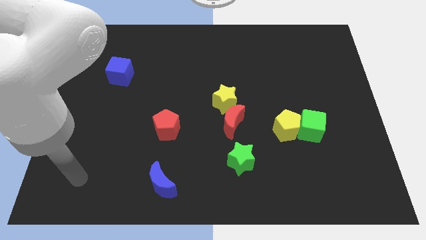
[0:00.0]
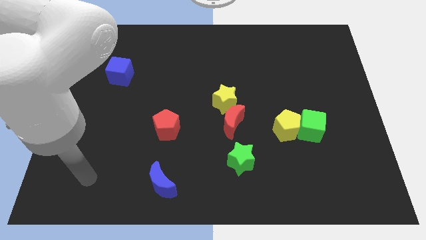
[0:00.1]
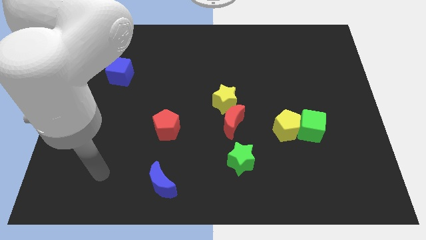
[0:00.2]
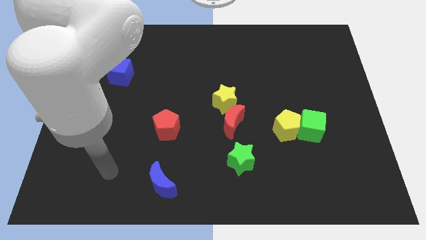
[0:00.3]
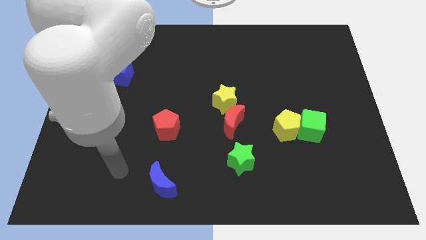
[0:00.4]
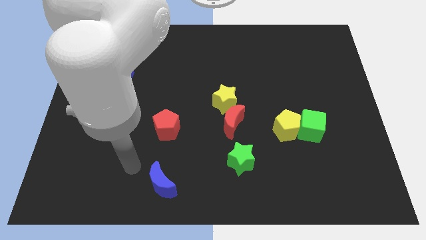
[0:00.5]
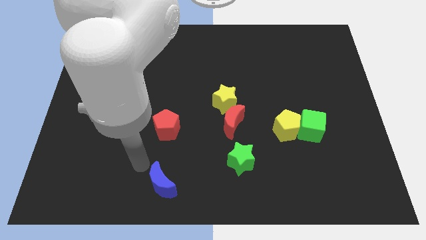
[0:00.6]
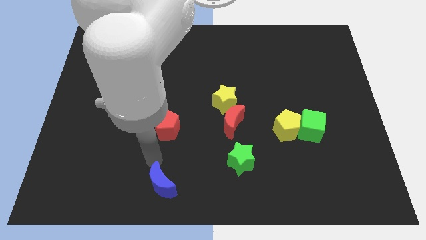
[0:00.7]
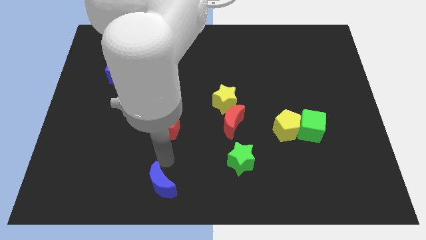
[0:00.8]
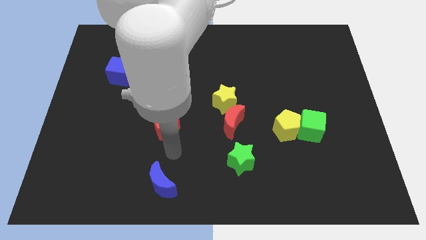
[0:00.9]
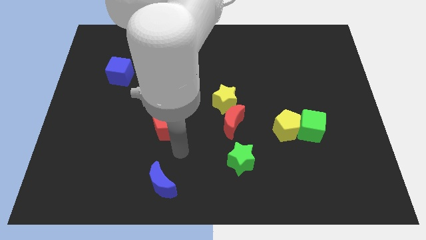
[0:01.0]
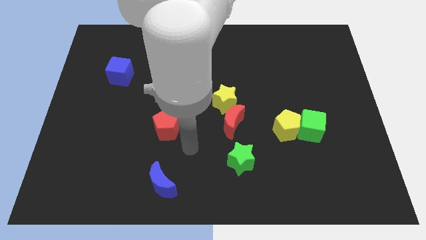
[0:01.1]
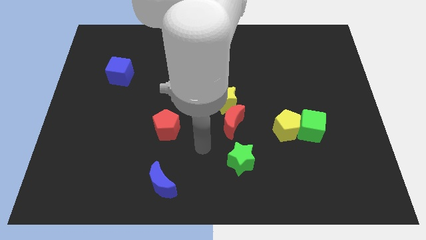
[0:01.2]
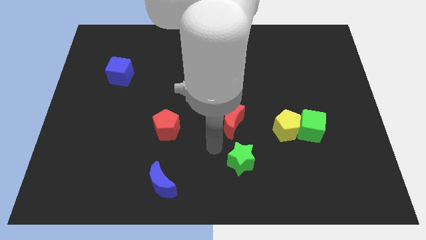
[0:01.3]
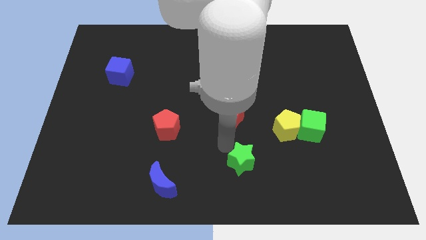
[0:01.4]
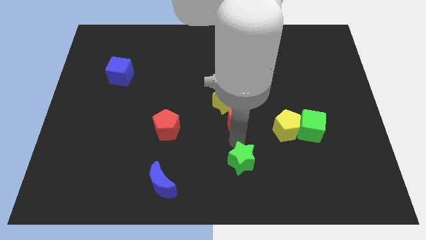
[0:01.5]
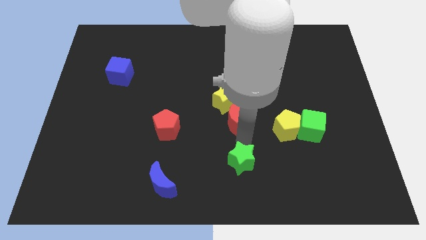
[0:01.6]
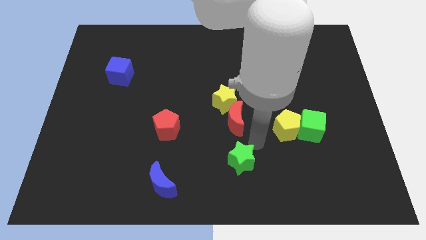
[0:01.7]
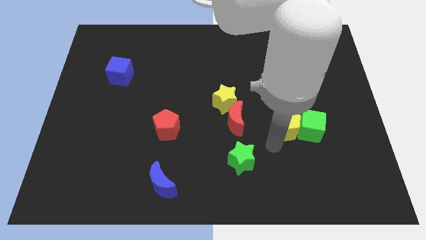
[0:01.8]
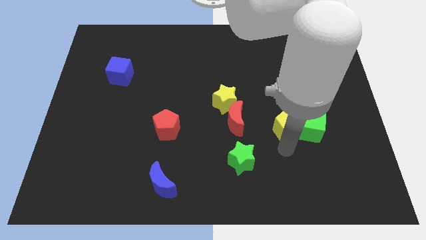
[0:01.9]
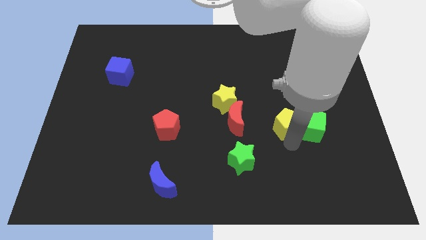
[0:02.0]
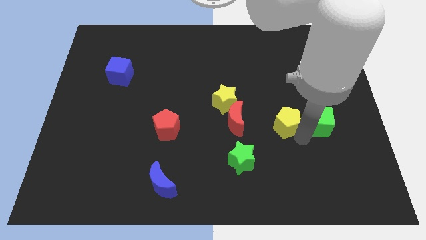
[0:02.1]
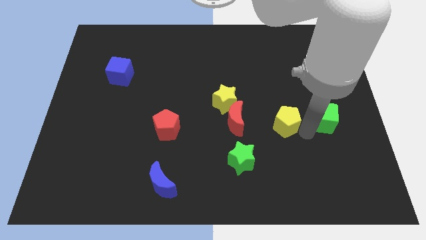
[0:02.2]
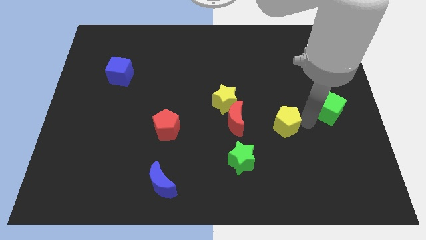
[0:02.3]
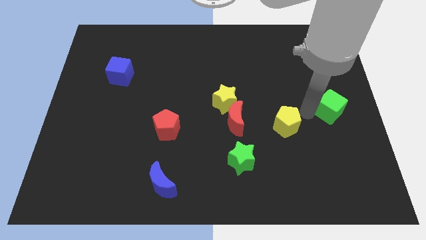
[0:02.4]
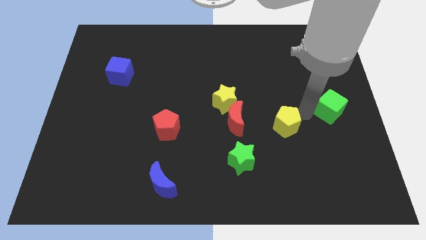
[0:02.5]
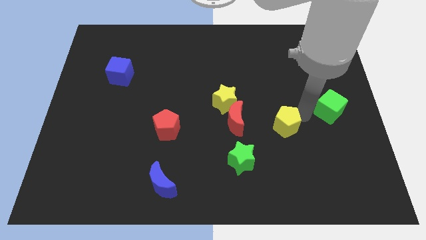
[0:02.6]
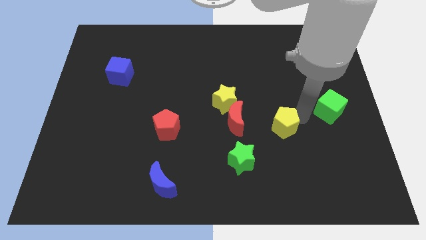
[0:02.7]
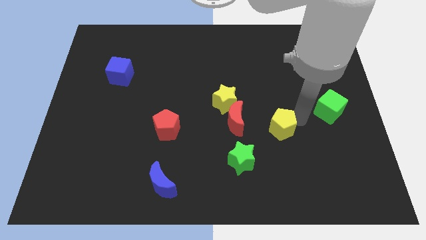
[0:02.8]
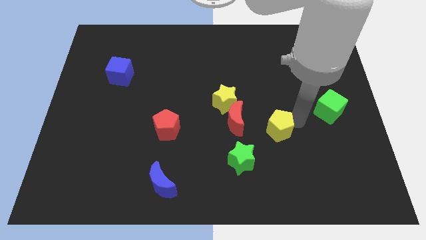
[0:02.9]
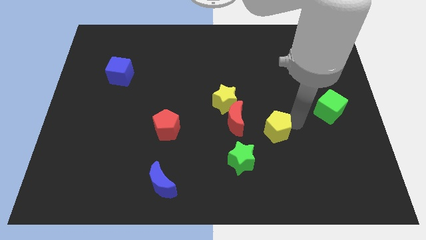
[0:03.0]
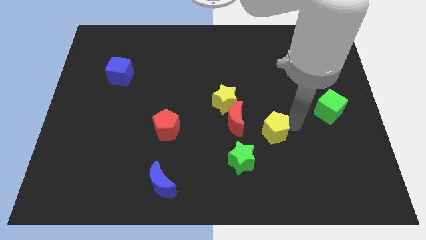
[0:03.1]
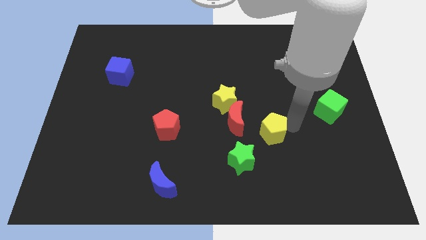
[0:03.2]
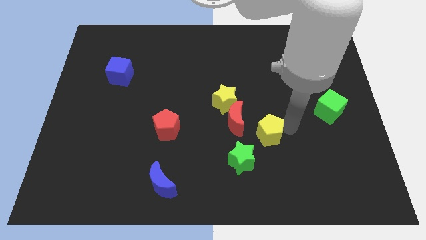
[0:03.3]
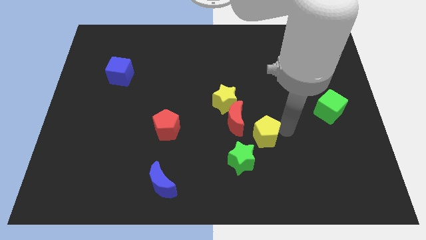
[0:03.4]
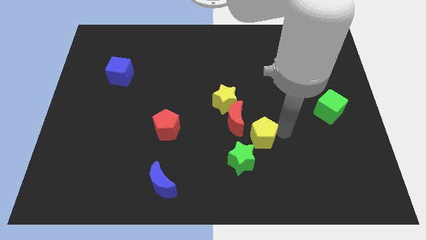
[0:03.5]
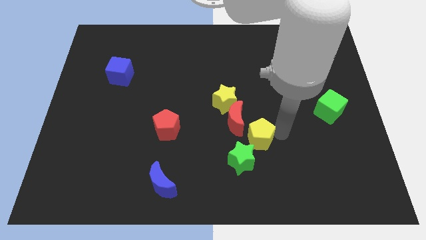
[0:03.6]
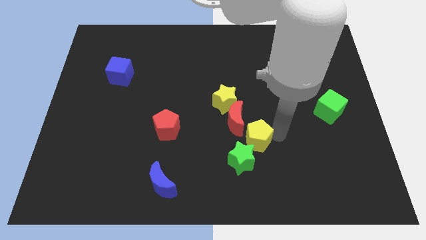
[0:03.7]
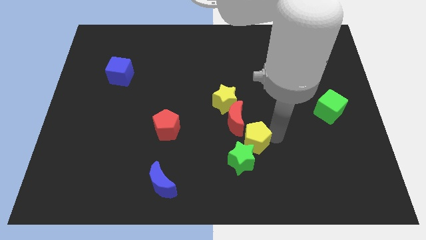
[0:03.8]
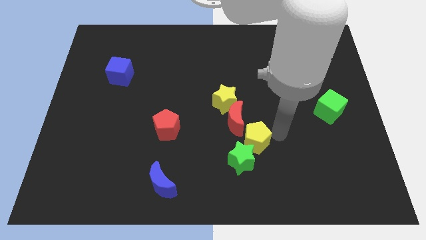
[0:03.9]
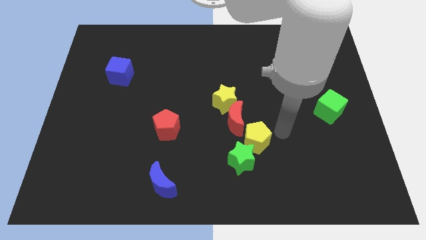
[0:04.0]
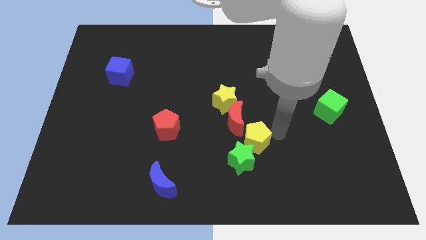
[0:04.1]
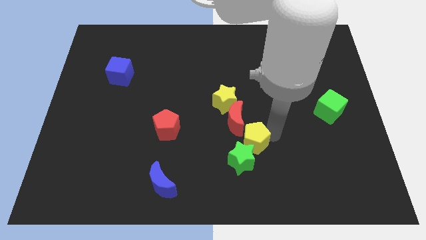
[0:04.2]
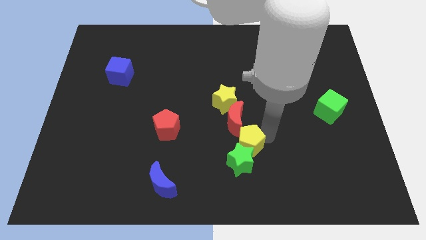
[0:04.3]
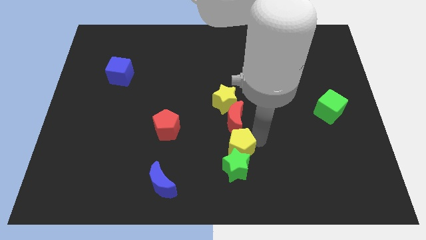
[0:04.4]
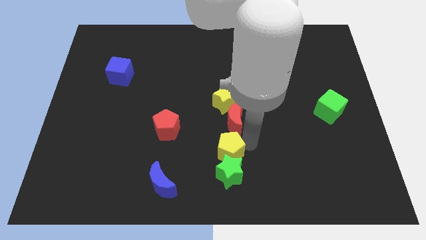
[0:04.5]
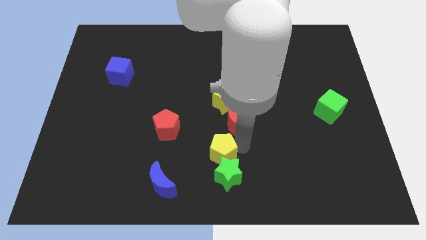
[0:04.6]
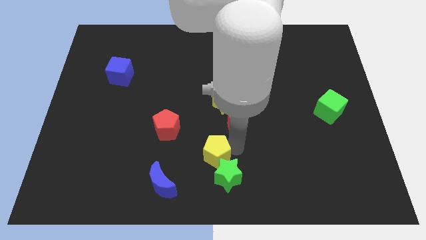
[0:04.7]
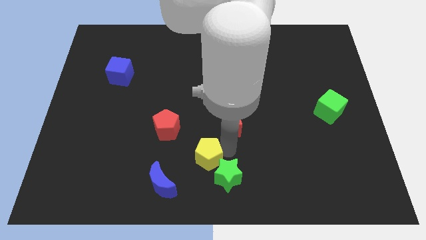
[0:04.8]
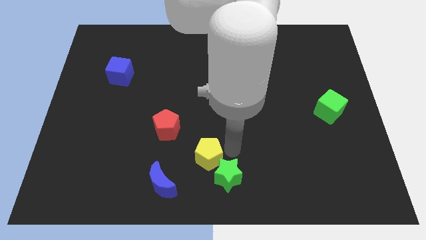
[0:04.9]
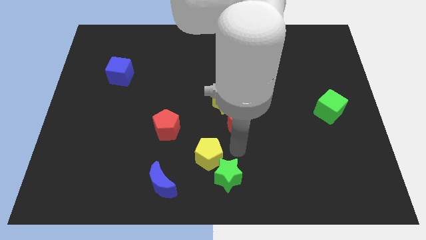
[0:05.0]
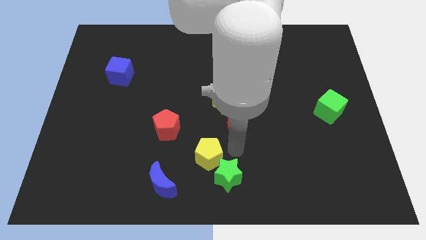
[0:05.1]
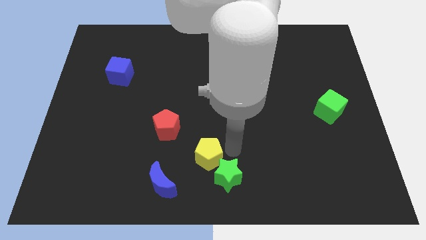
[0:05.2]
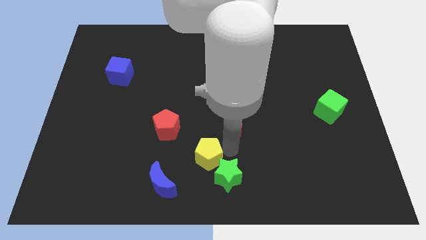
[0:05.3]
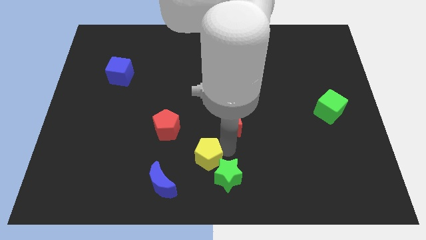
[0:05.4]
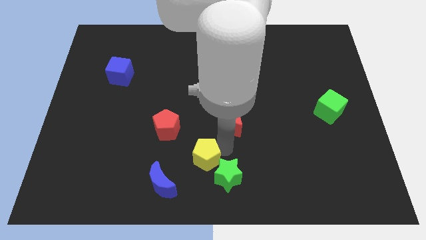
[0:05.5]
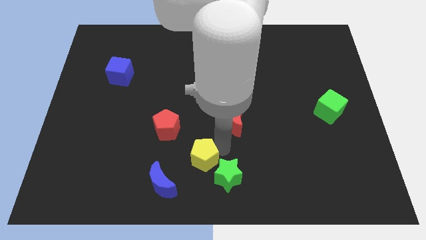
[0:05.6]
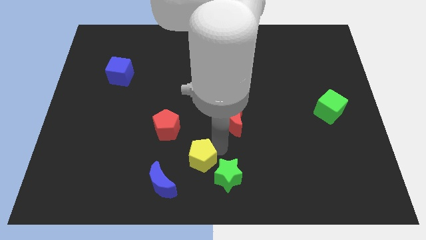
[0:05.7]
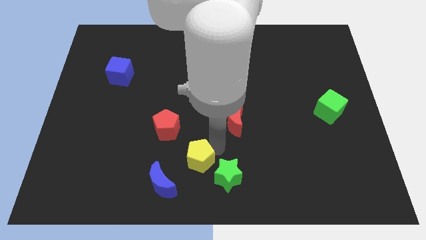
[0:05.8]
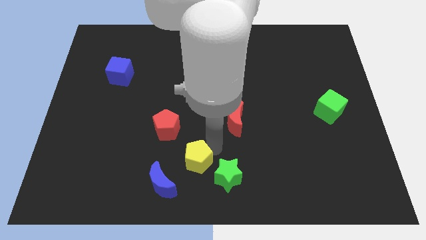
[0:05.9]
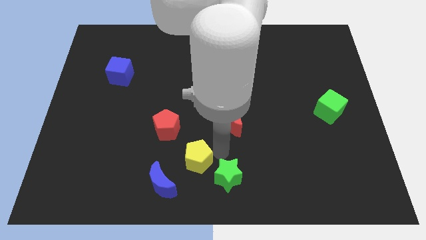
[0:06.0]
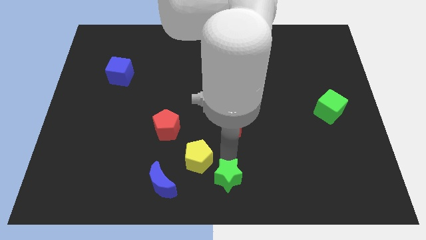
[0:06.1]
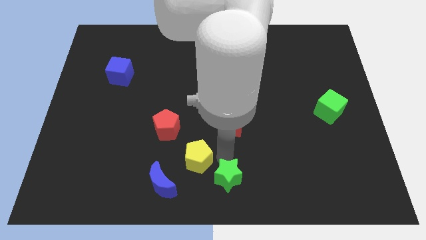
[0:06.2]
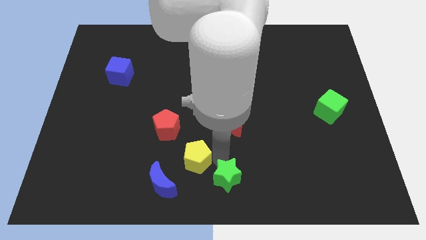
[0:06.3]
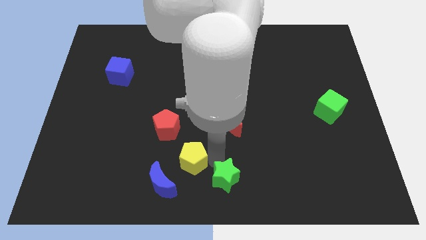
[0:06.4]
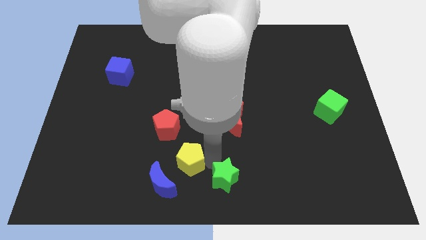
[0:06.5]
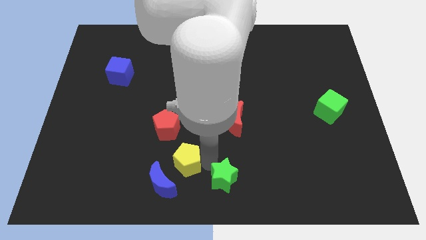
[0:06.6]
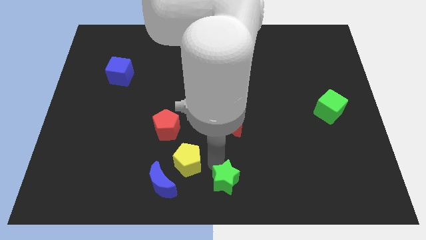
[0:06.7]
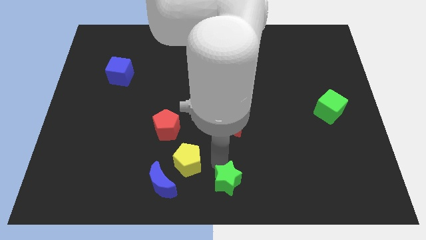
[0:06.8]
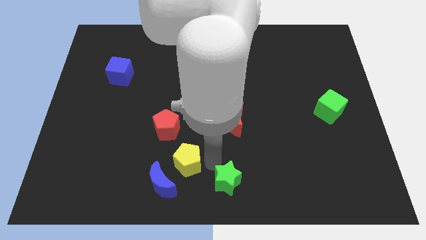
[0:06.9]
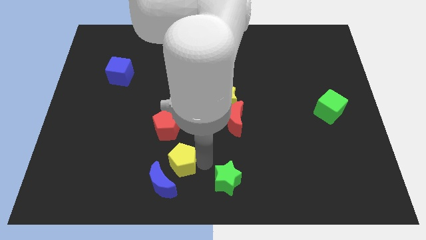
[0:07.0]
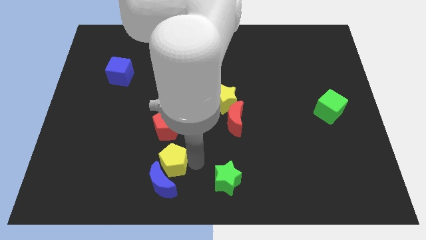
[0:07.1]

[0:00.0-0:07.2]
slide the yellow pentagon left

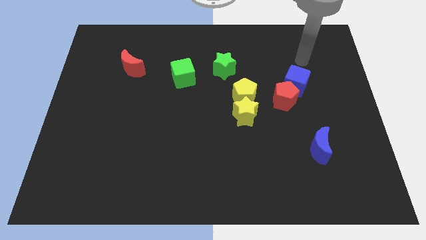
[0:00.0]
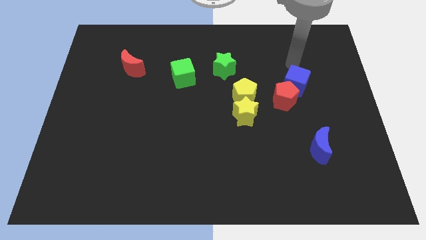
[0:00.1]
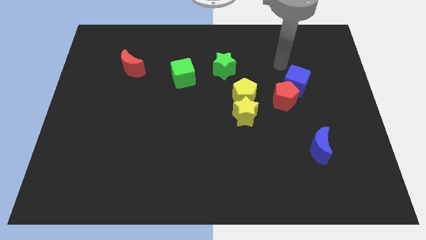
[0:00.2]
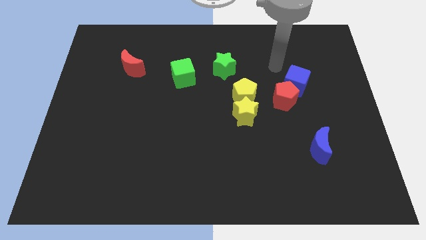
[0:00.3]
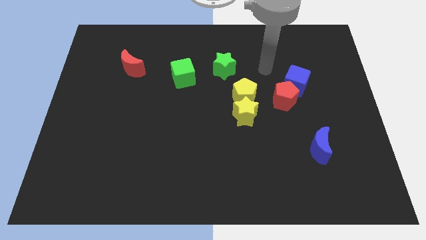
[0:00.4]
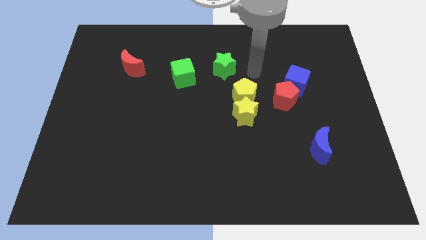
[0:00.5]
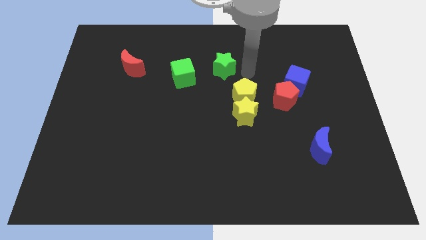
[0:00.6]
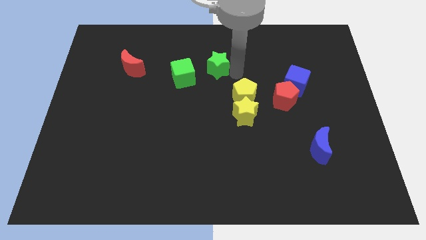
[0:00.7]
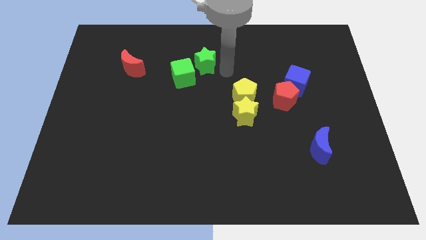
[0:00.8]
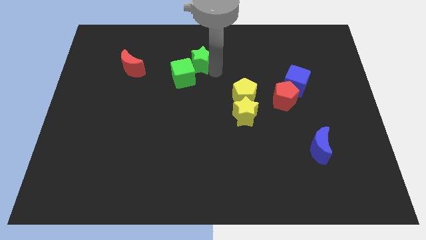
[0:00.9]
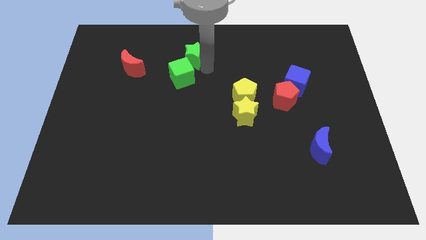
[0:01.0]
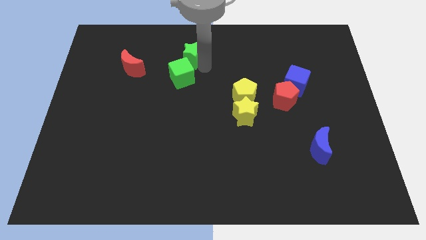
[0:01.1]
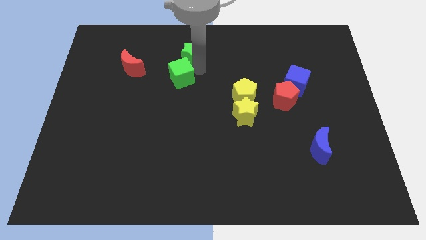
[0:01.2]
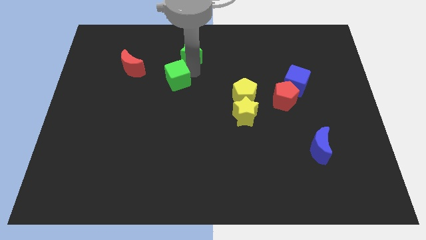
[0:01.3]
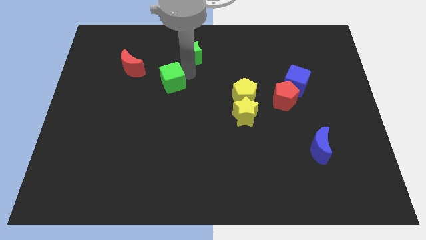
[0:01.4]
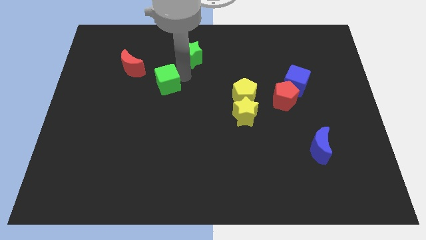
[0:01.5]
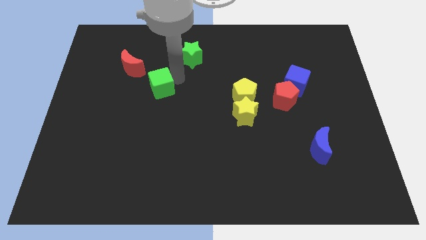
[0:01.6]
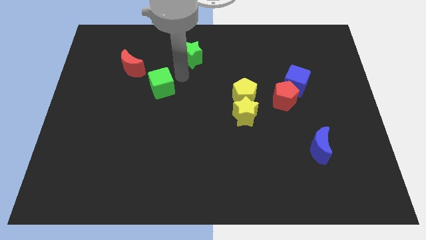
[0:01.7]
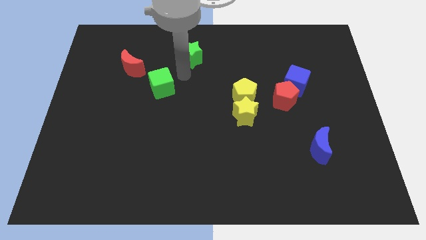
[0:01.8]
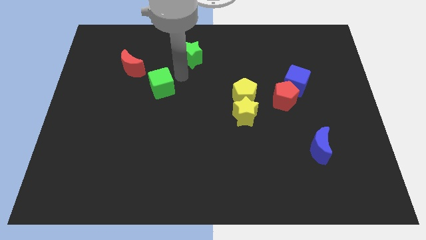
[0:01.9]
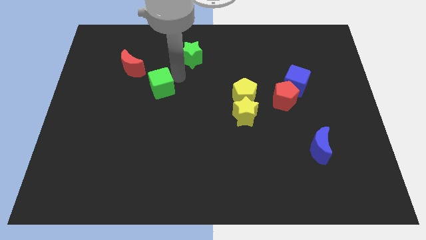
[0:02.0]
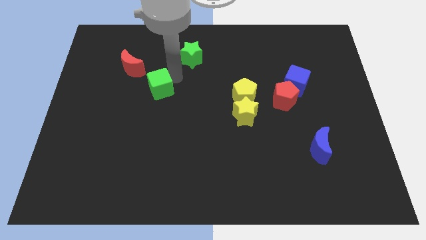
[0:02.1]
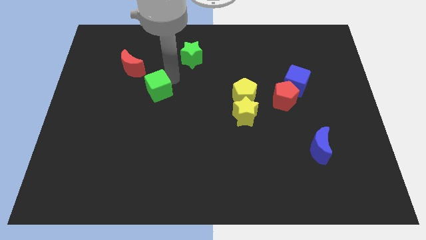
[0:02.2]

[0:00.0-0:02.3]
slide the green cube a little bit downwards and left diagonally
